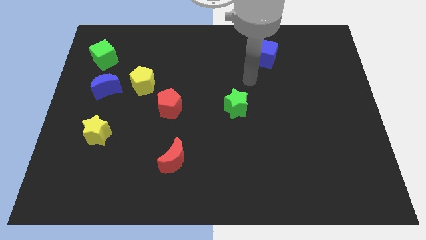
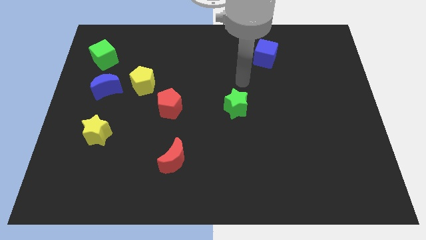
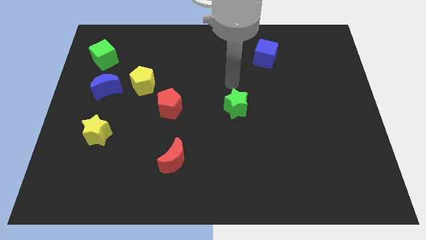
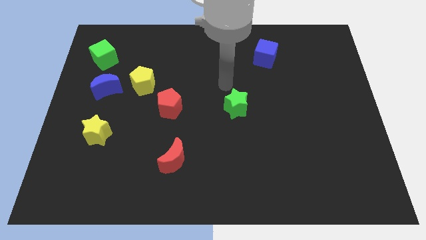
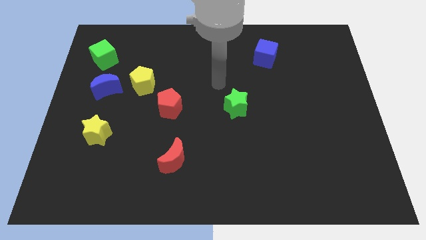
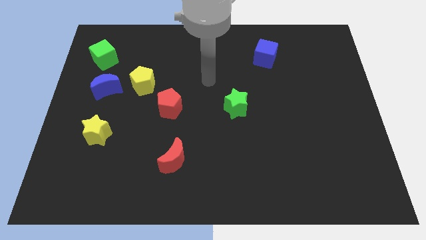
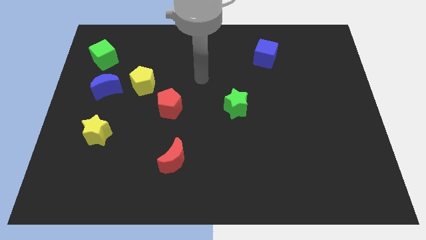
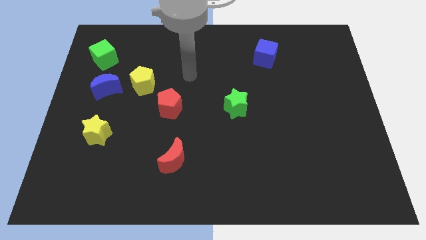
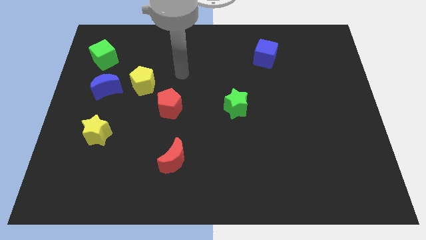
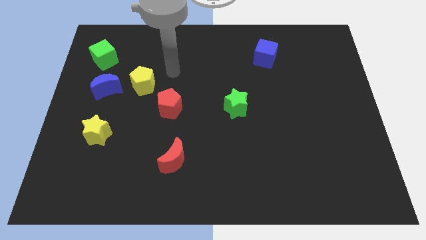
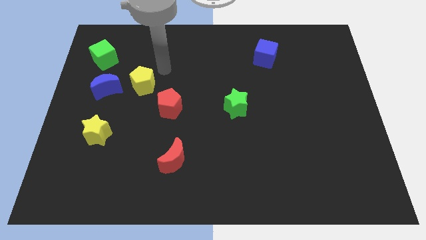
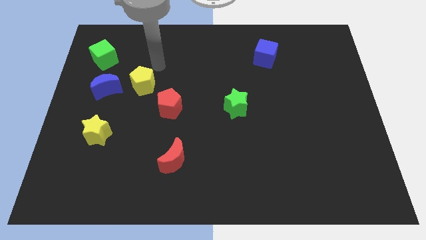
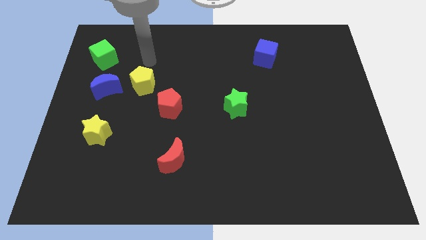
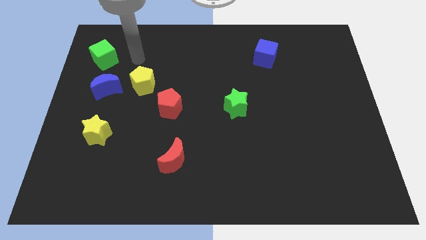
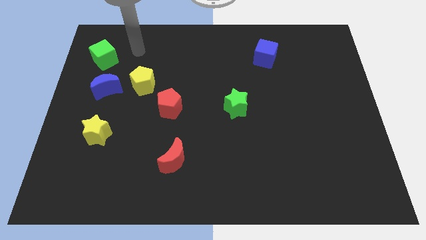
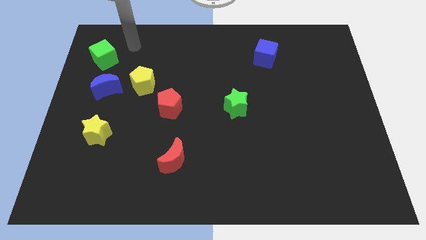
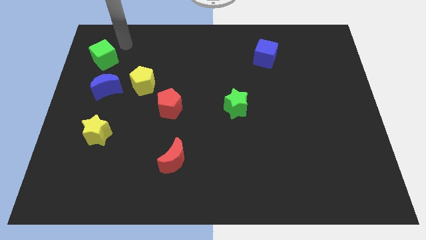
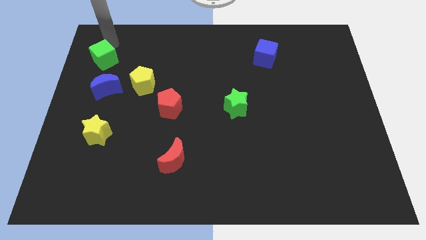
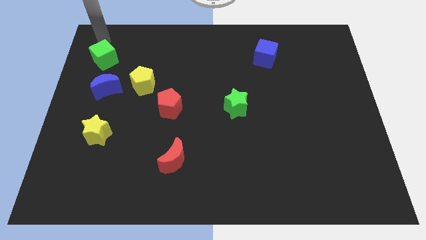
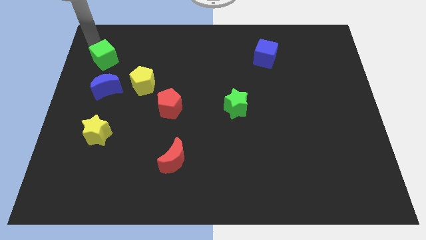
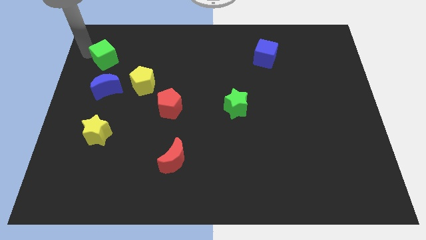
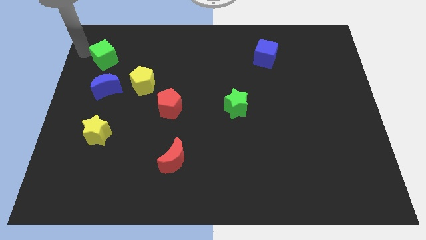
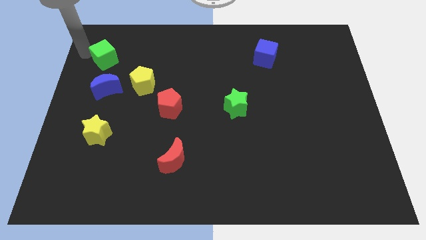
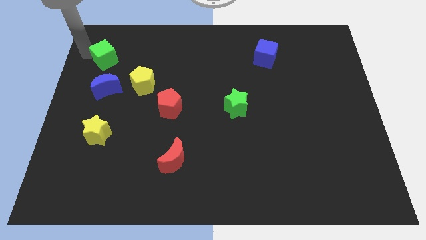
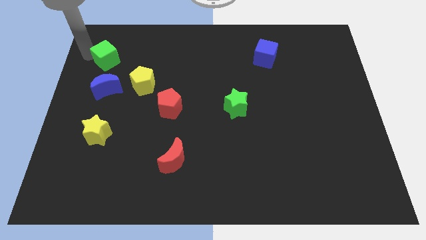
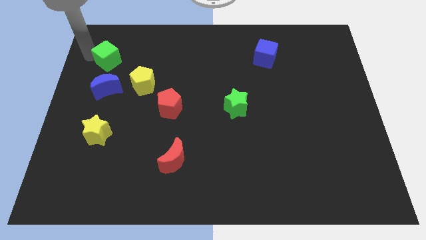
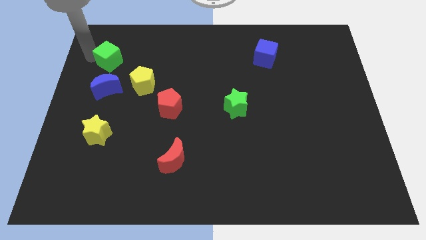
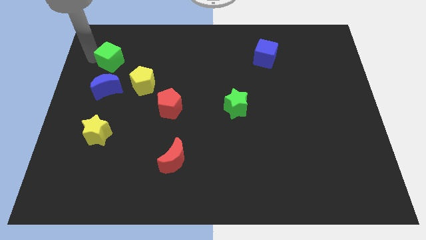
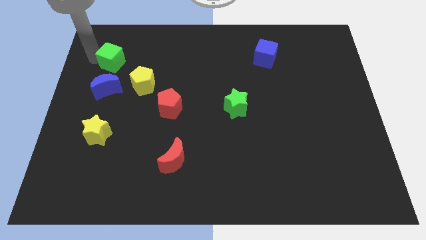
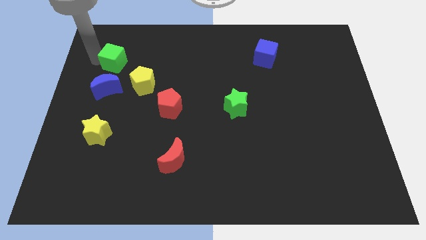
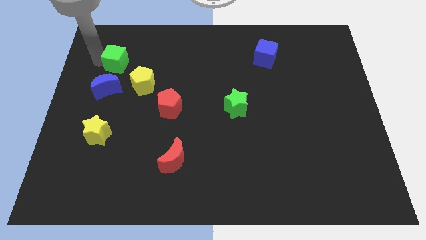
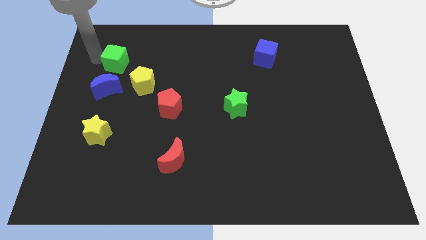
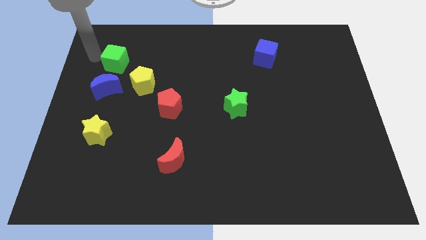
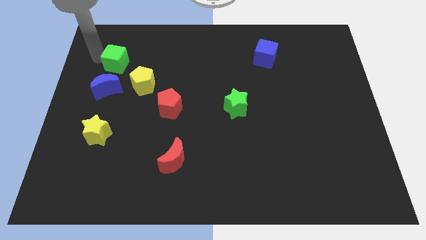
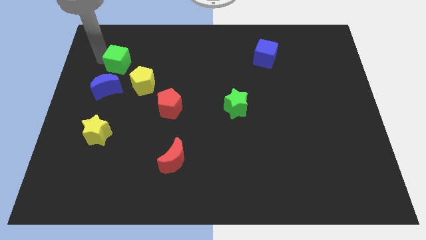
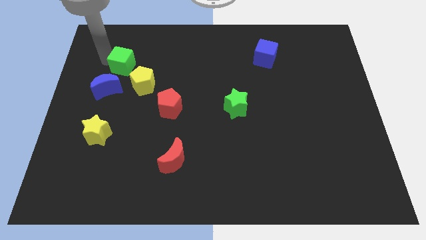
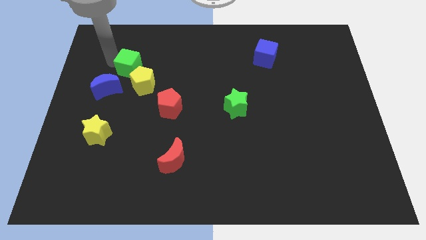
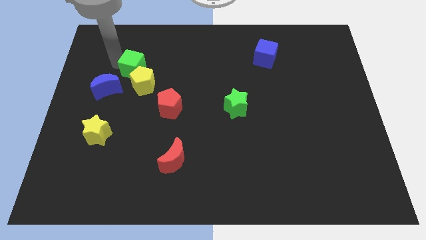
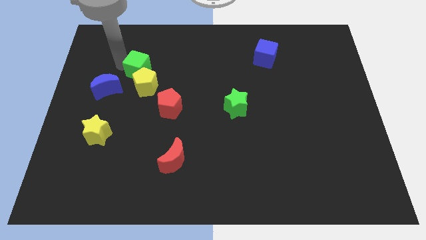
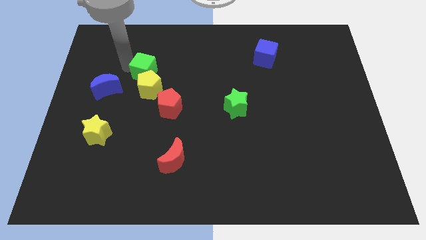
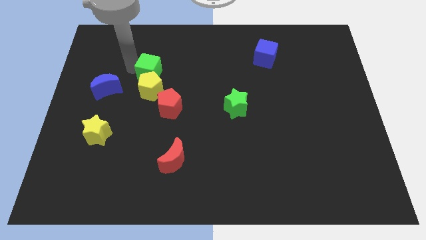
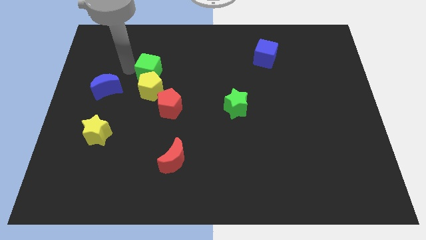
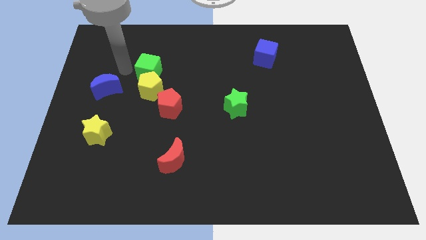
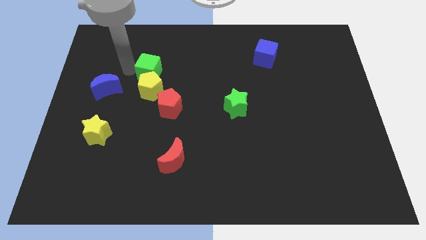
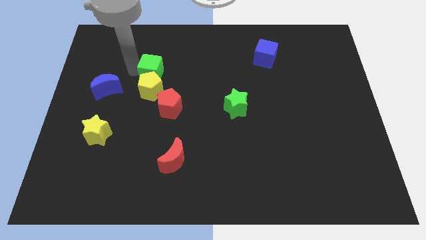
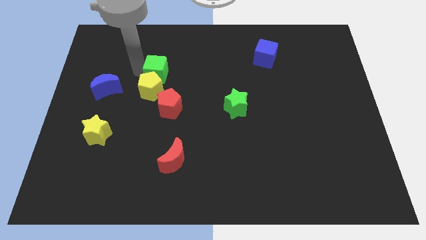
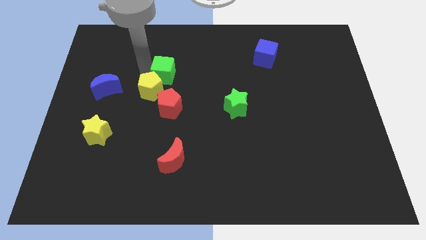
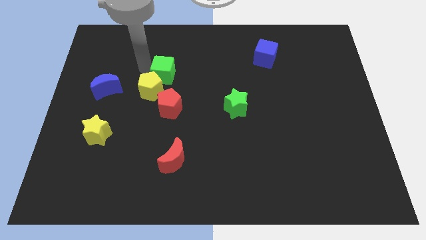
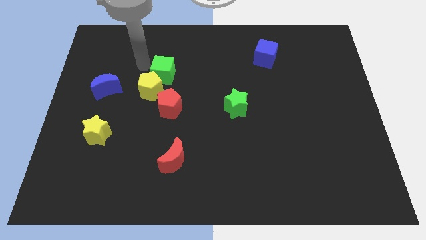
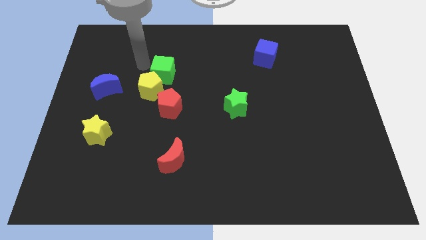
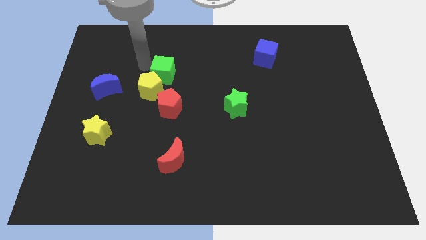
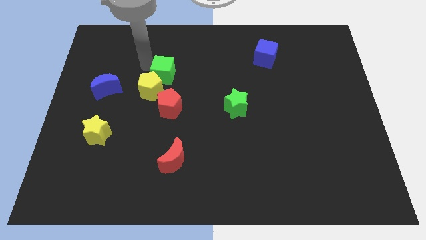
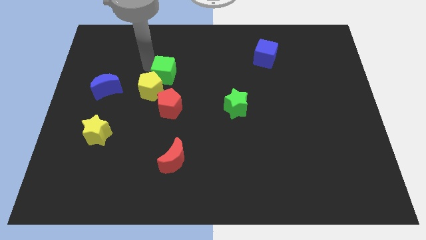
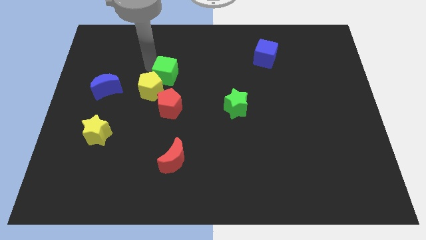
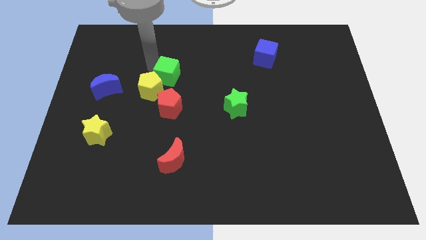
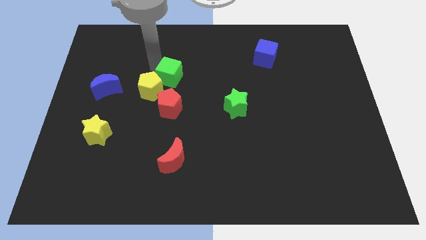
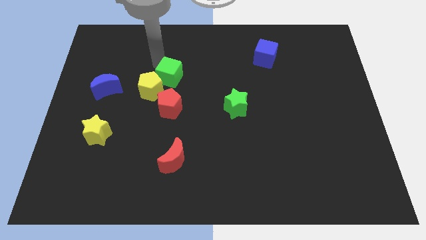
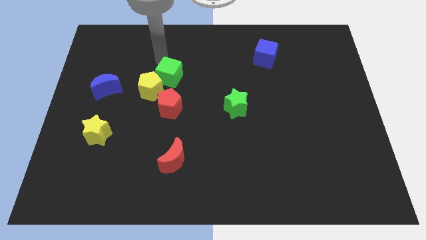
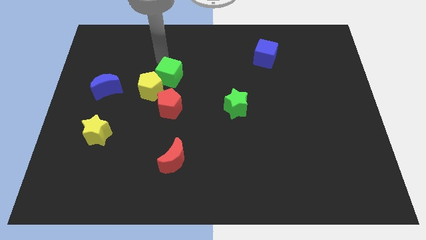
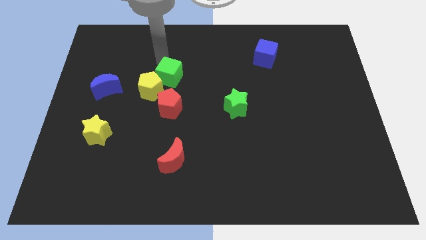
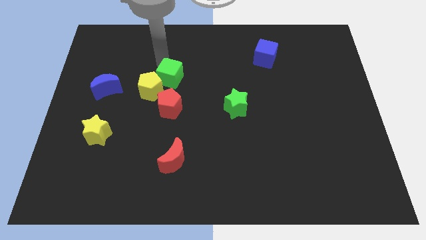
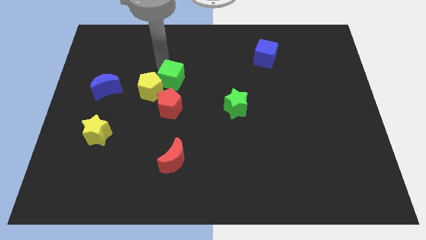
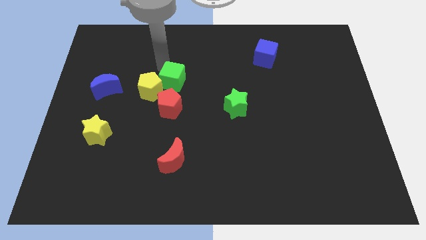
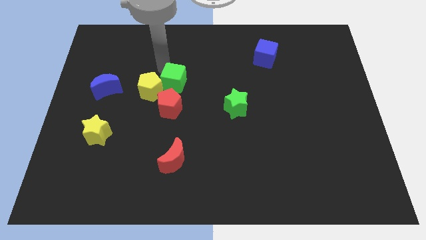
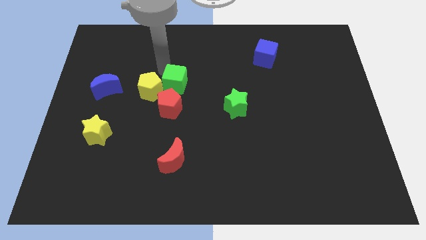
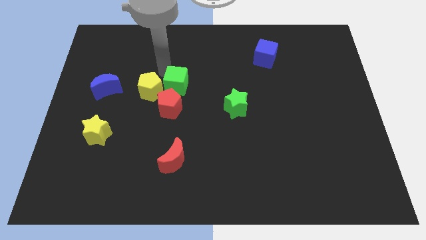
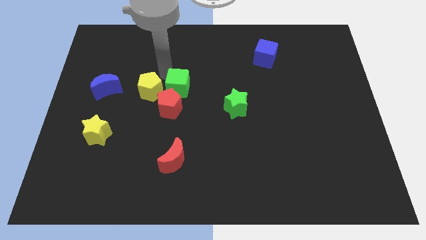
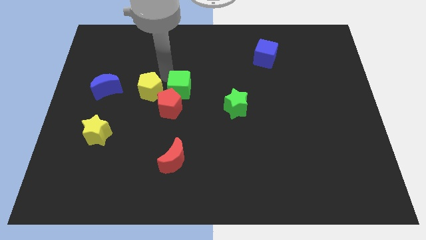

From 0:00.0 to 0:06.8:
push the green cube downwards and to the right

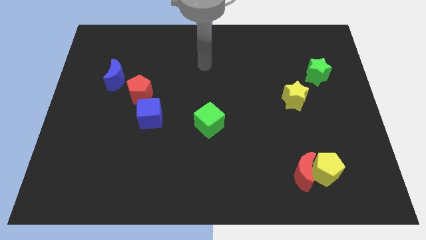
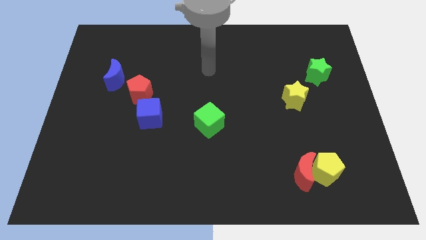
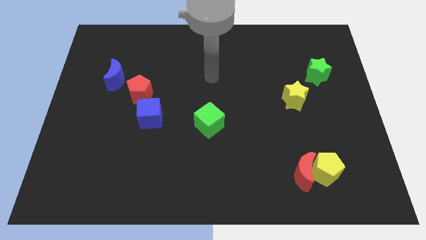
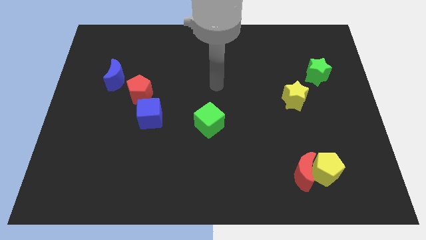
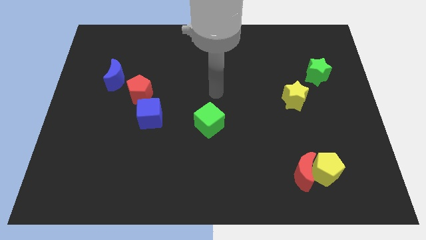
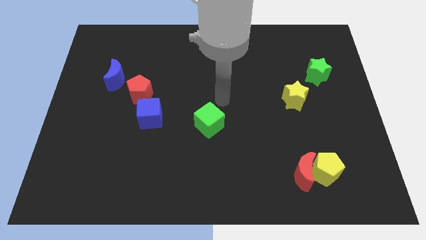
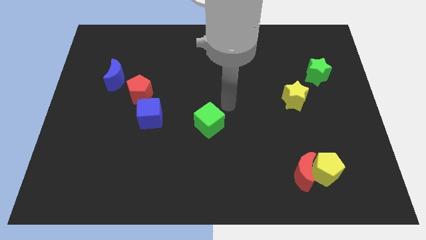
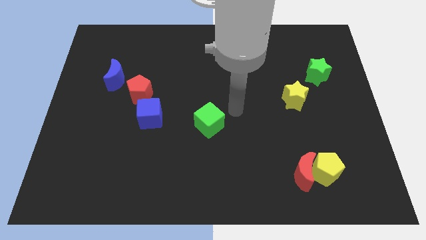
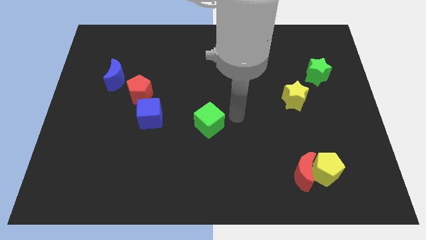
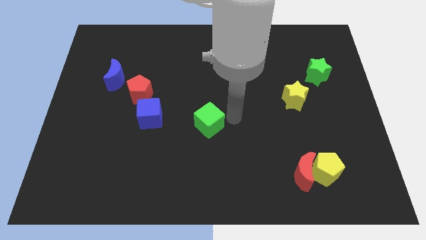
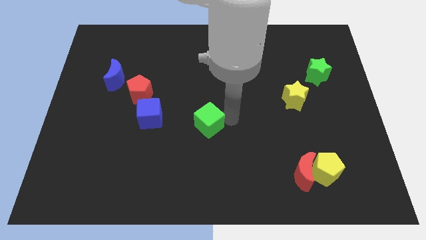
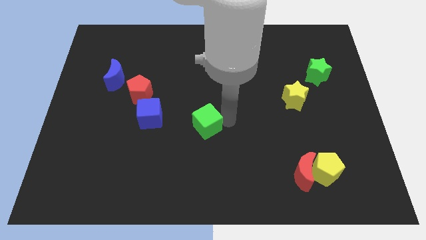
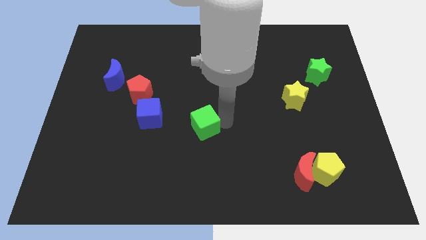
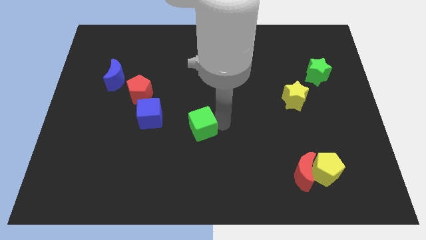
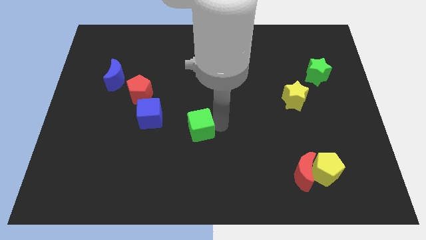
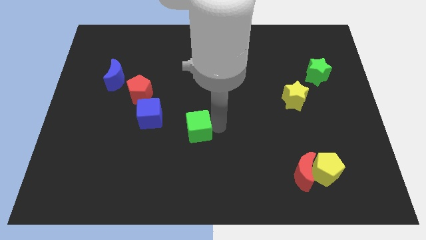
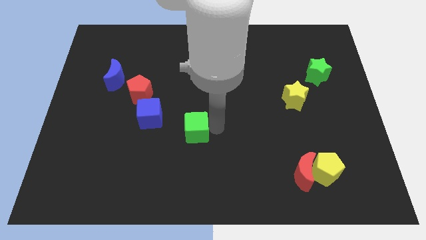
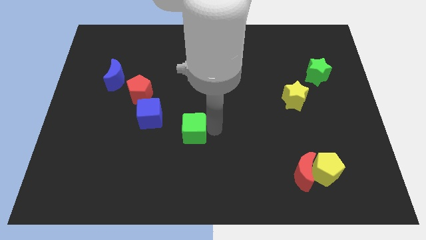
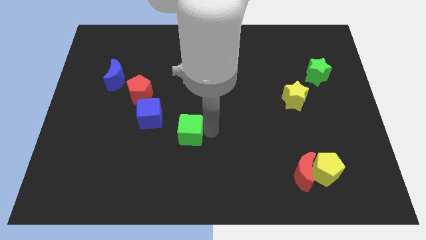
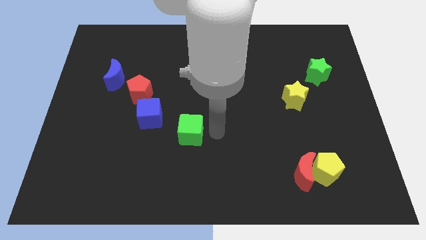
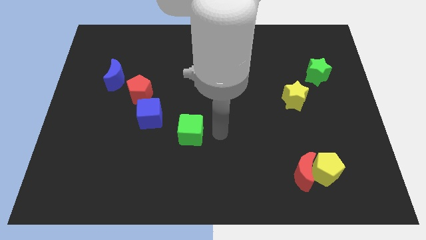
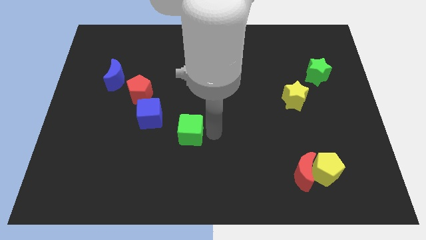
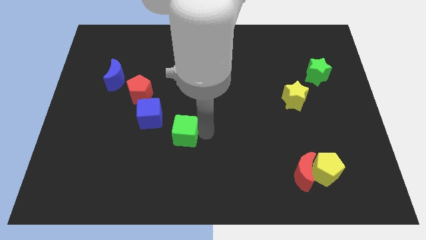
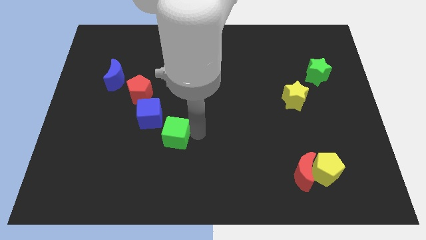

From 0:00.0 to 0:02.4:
move the green cube slightly to the left
